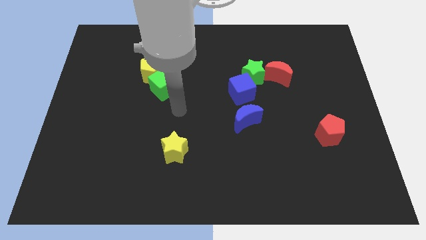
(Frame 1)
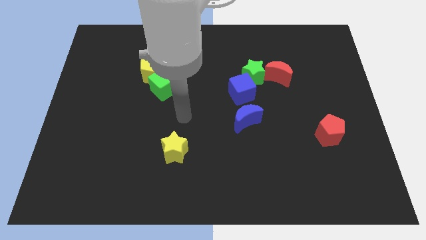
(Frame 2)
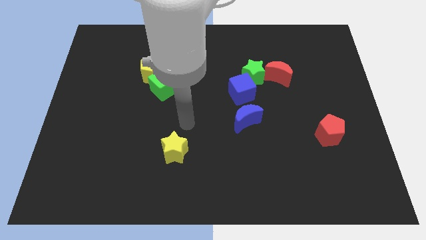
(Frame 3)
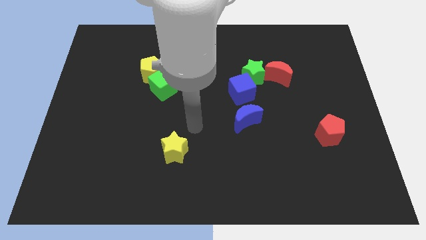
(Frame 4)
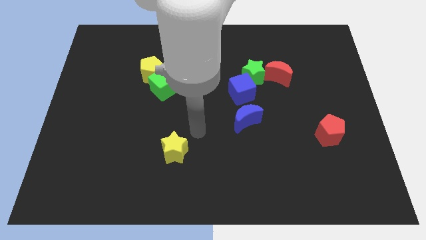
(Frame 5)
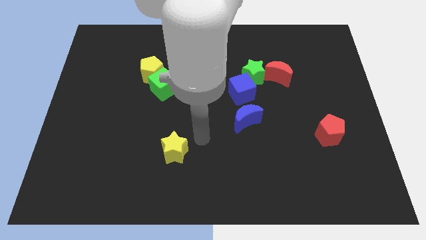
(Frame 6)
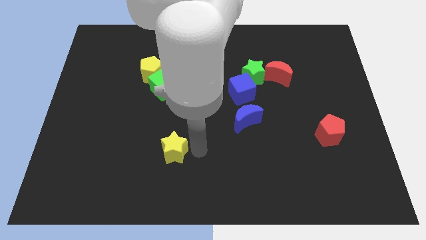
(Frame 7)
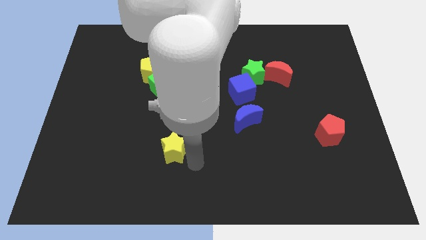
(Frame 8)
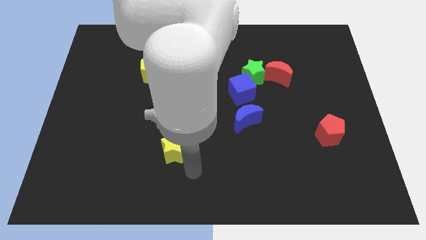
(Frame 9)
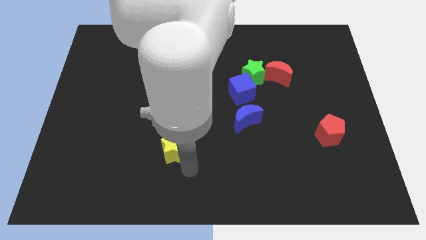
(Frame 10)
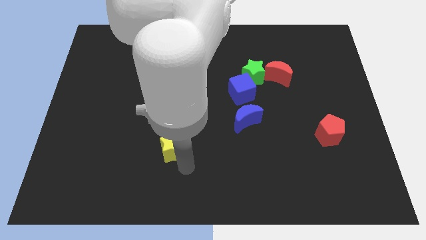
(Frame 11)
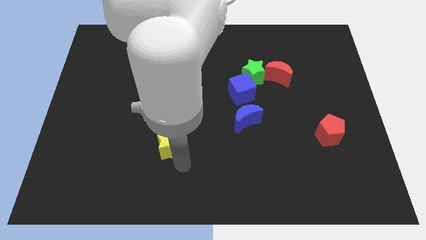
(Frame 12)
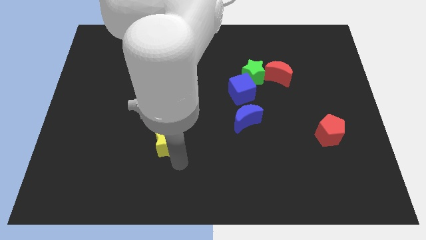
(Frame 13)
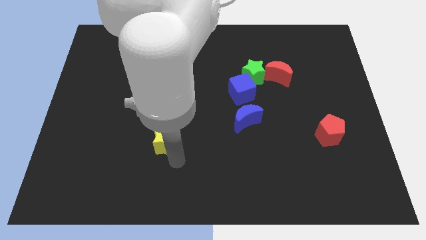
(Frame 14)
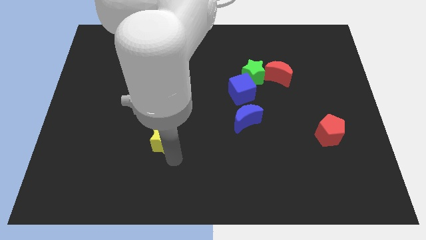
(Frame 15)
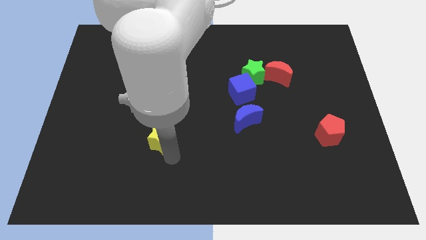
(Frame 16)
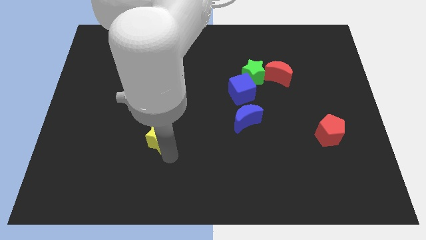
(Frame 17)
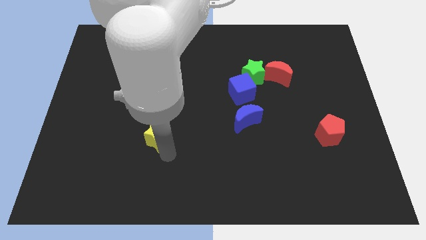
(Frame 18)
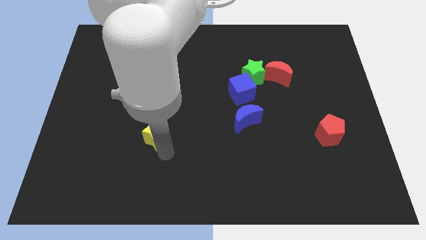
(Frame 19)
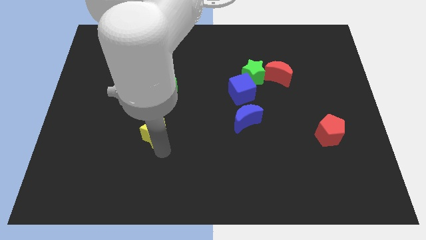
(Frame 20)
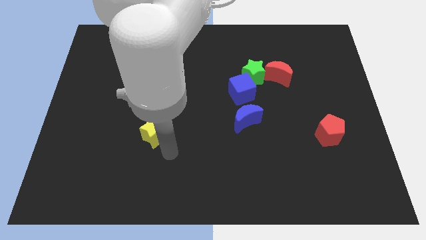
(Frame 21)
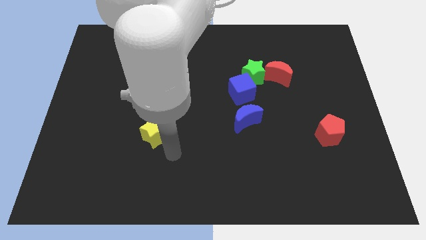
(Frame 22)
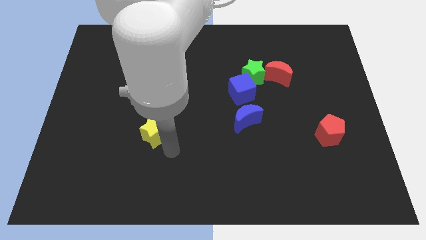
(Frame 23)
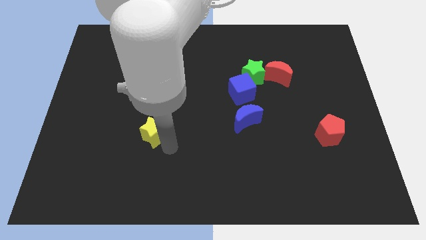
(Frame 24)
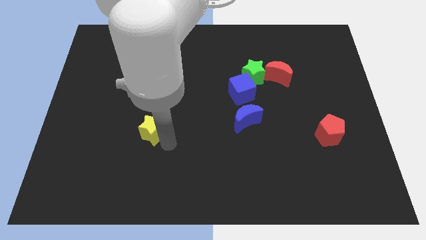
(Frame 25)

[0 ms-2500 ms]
slide the yellow star a little up and to the left

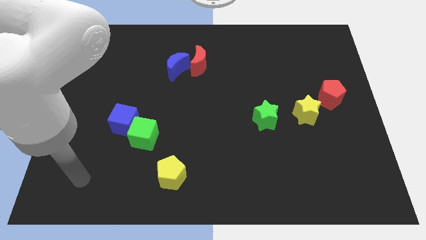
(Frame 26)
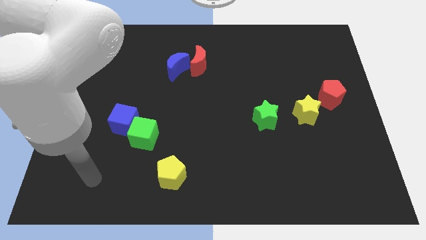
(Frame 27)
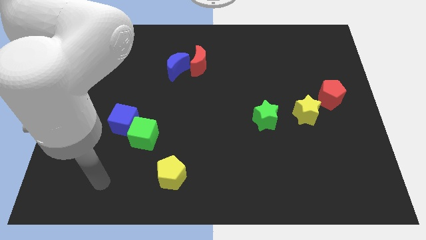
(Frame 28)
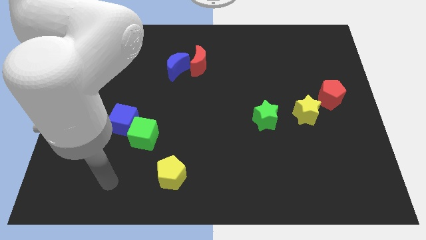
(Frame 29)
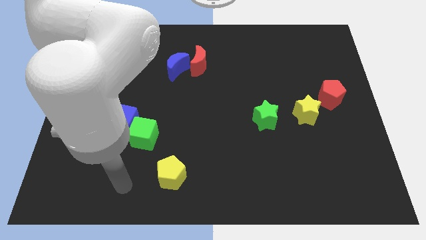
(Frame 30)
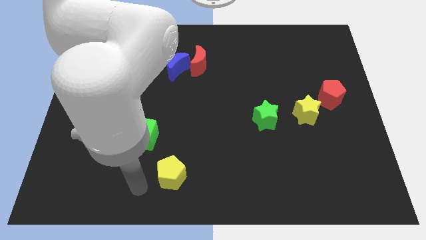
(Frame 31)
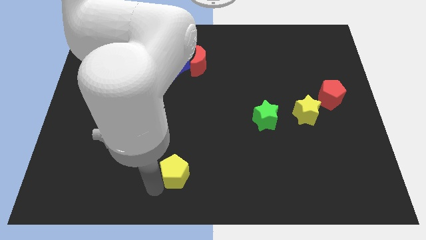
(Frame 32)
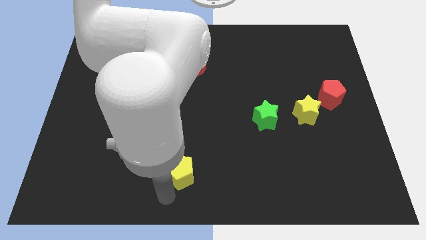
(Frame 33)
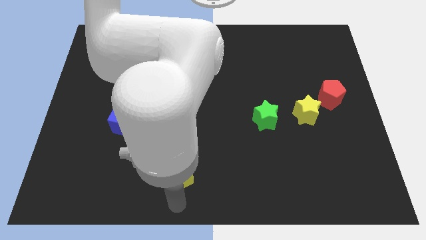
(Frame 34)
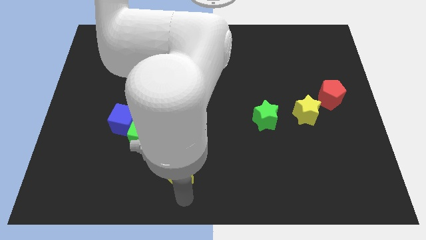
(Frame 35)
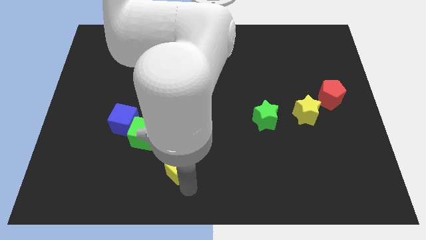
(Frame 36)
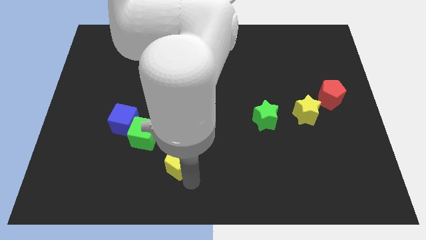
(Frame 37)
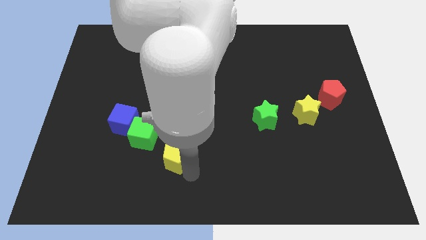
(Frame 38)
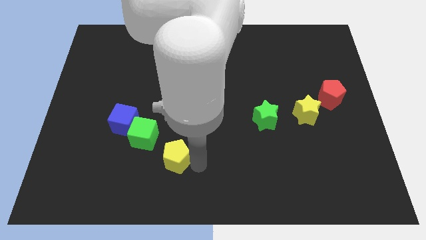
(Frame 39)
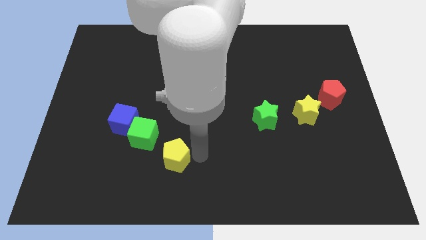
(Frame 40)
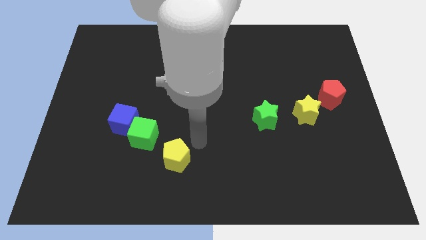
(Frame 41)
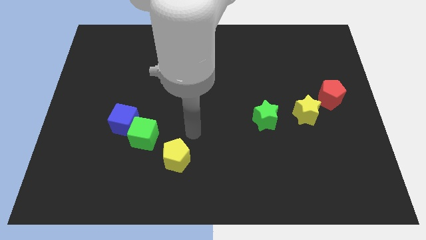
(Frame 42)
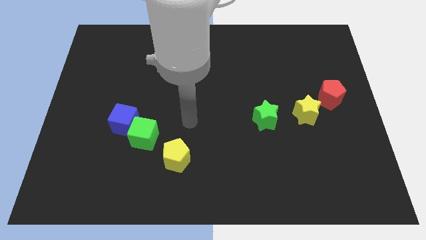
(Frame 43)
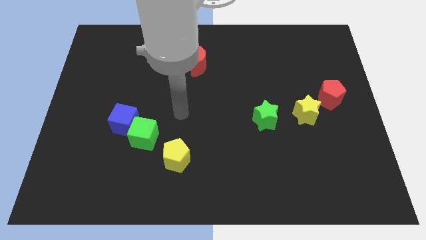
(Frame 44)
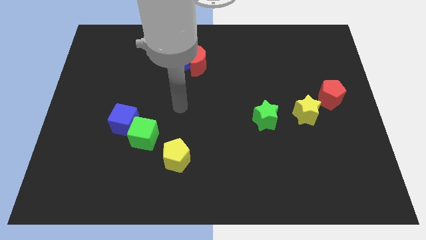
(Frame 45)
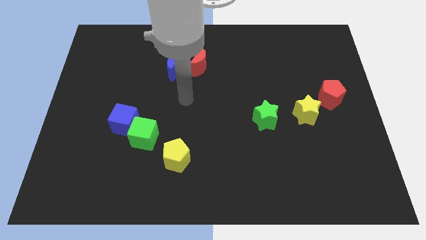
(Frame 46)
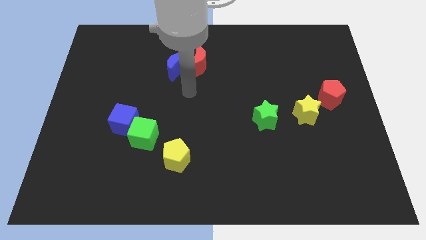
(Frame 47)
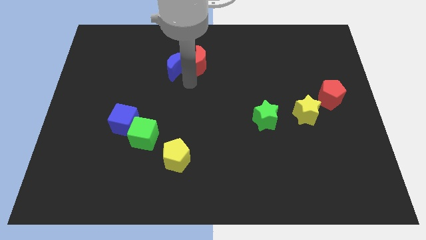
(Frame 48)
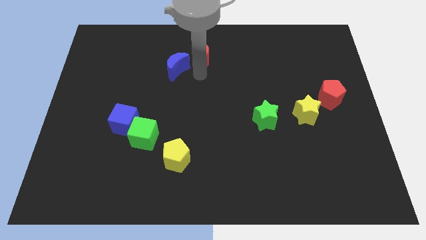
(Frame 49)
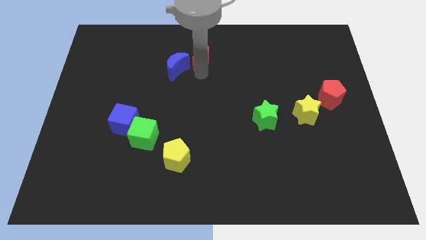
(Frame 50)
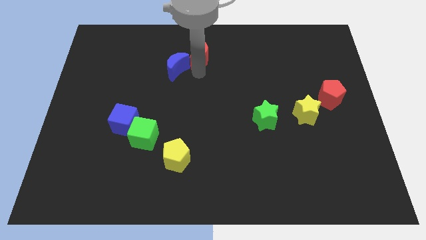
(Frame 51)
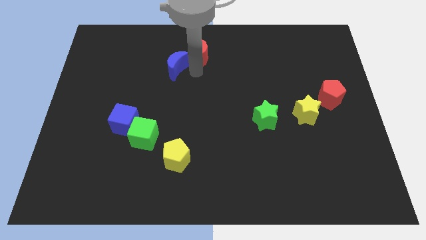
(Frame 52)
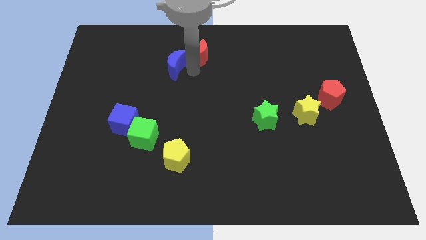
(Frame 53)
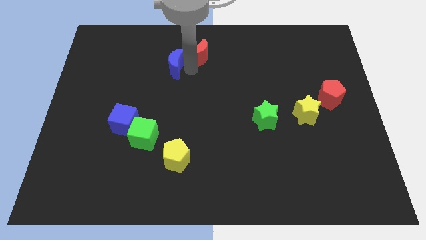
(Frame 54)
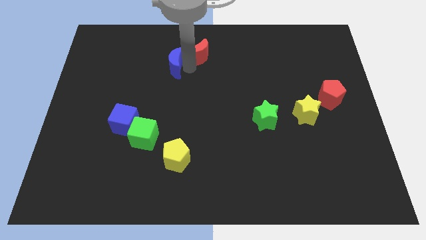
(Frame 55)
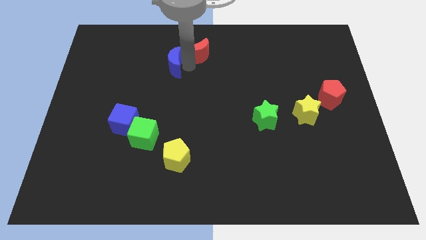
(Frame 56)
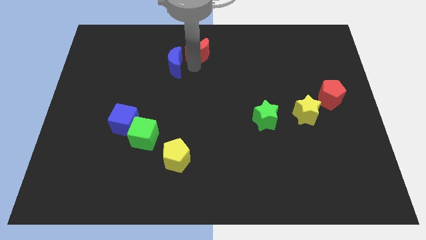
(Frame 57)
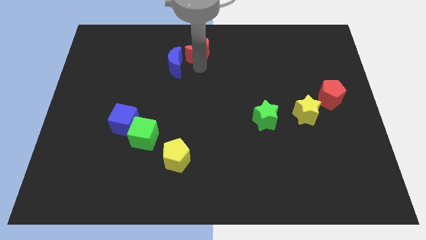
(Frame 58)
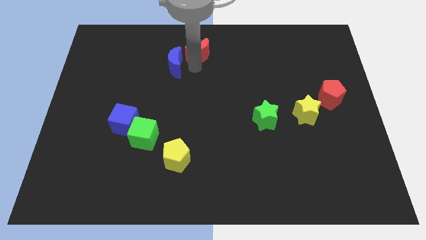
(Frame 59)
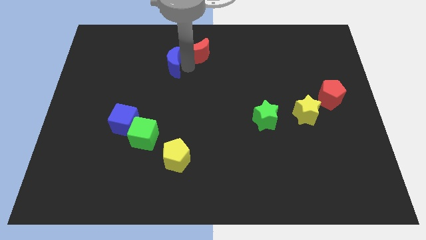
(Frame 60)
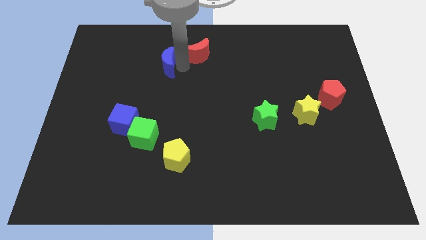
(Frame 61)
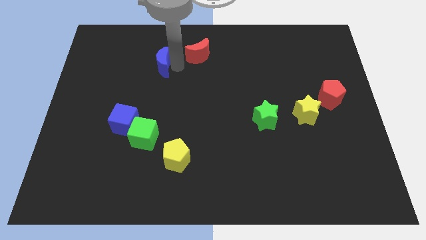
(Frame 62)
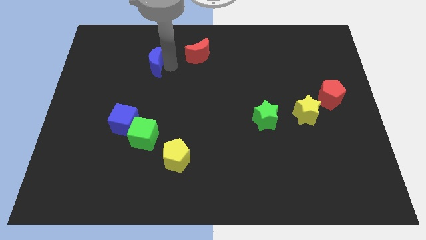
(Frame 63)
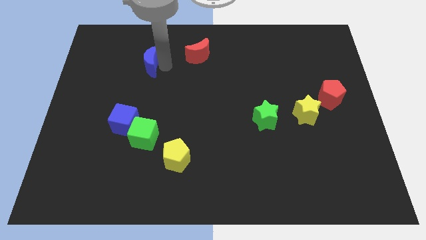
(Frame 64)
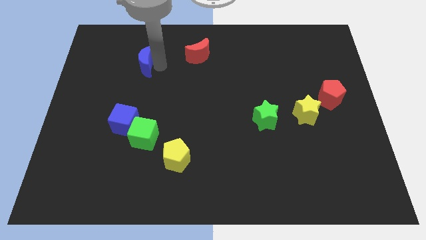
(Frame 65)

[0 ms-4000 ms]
slightly push the blue moon to the left

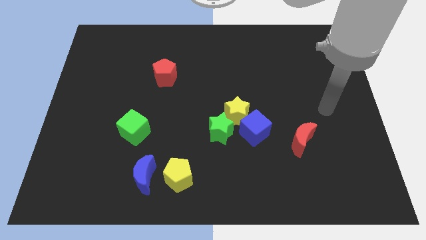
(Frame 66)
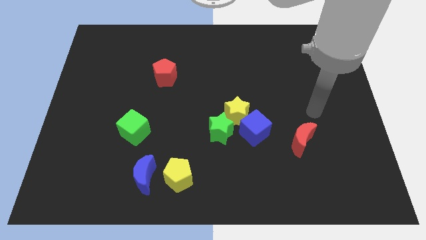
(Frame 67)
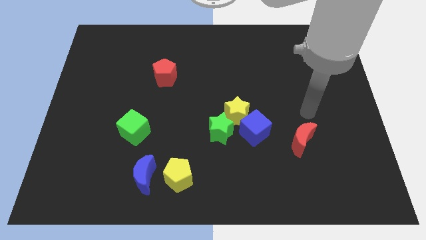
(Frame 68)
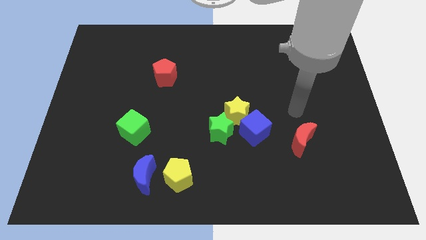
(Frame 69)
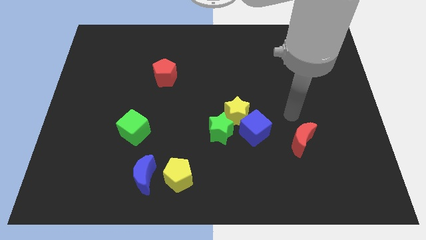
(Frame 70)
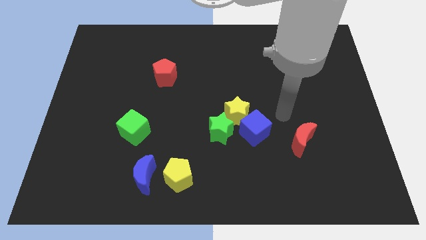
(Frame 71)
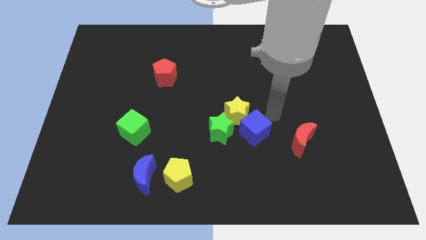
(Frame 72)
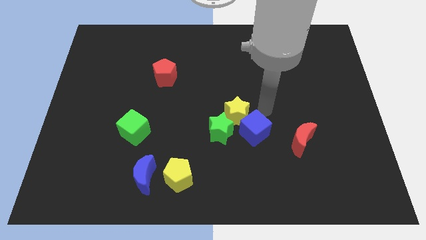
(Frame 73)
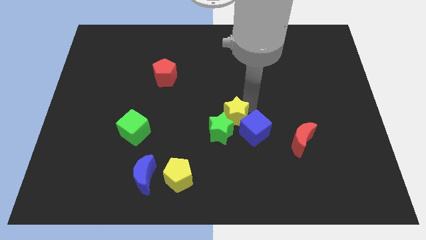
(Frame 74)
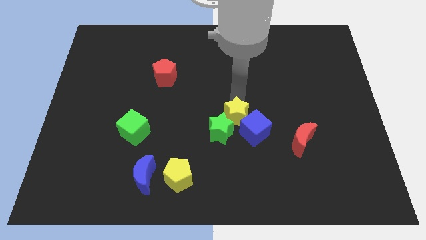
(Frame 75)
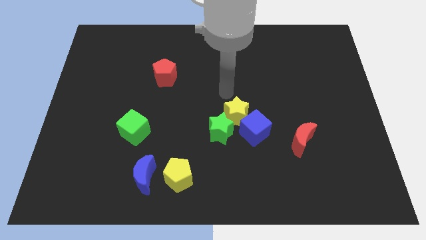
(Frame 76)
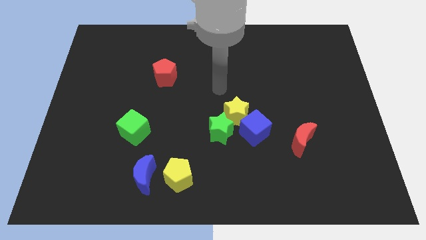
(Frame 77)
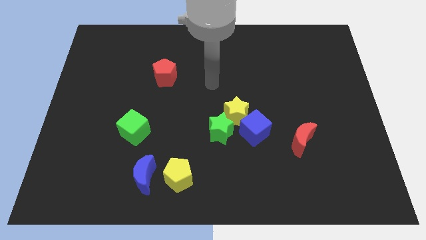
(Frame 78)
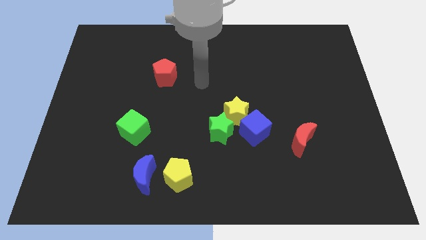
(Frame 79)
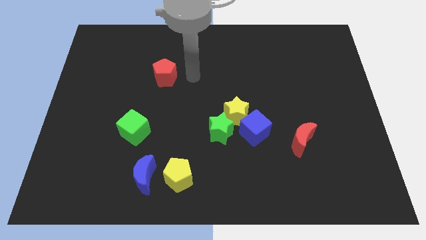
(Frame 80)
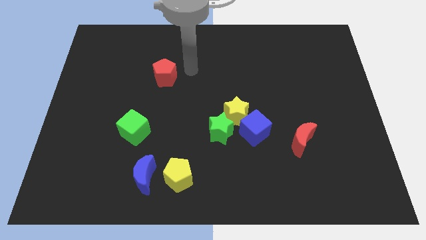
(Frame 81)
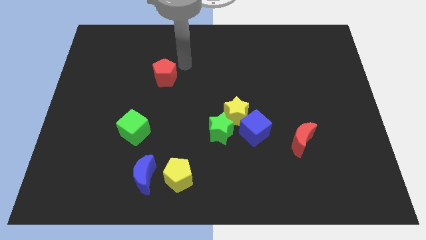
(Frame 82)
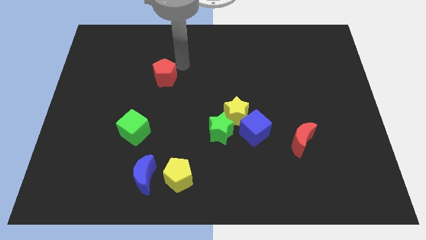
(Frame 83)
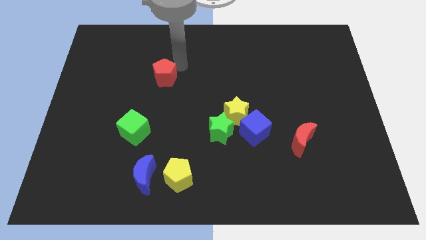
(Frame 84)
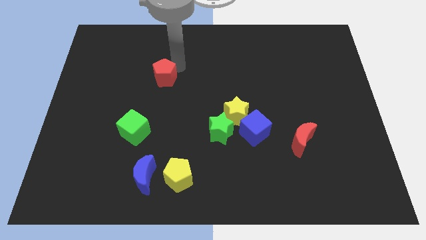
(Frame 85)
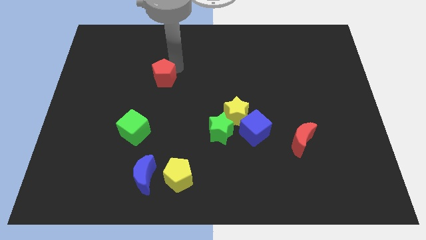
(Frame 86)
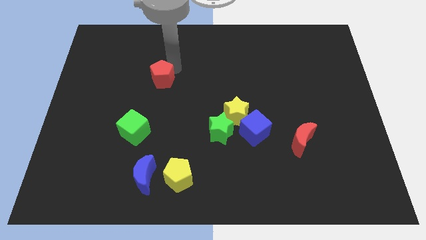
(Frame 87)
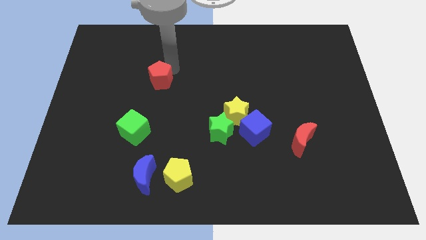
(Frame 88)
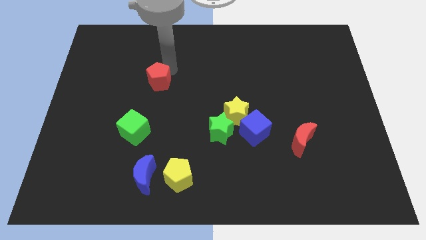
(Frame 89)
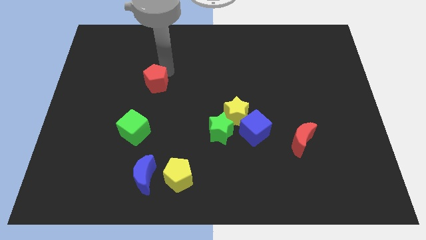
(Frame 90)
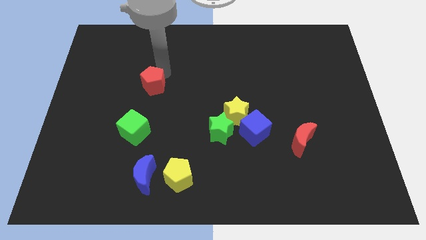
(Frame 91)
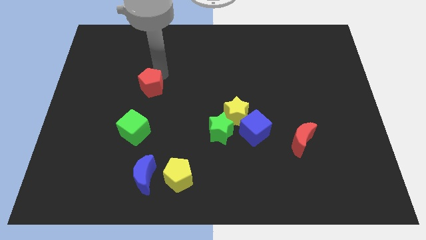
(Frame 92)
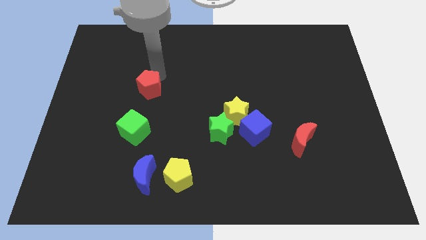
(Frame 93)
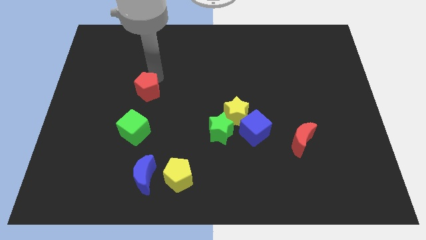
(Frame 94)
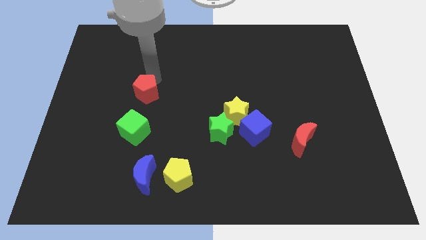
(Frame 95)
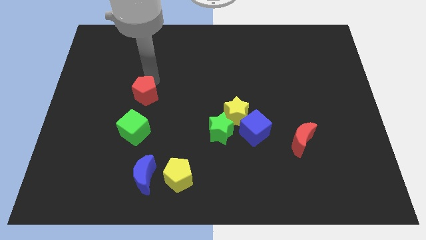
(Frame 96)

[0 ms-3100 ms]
move the red pentagon somewhat downwards and to the left diagonally
